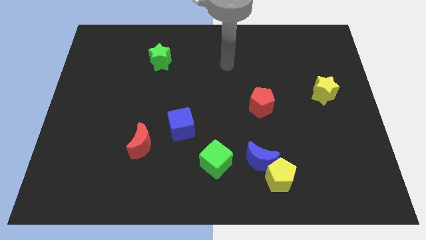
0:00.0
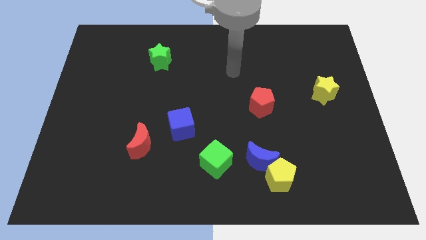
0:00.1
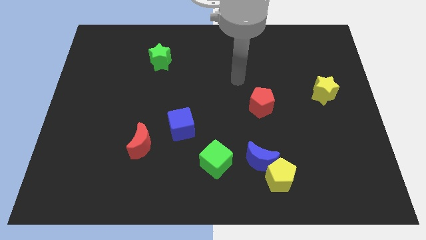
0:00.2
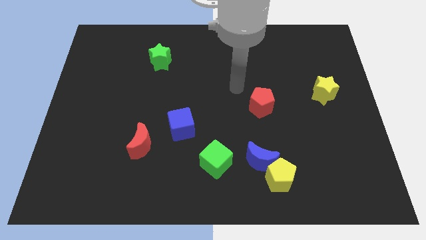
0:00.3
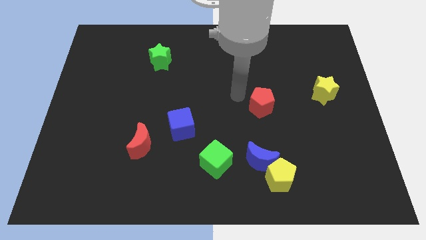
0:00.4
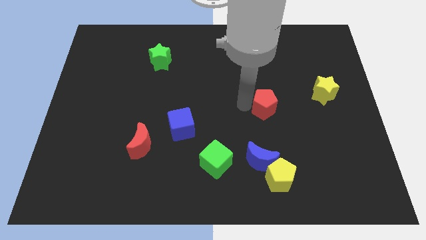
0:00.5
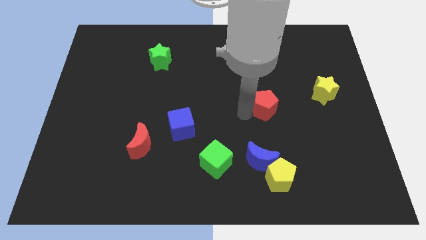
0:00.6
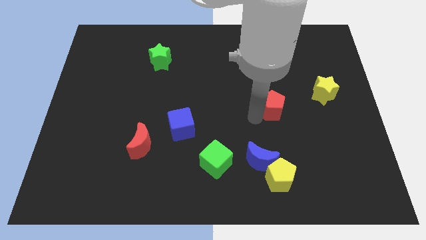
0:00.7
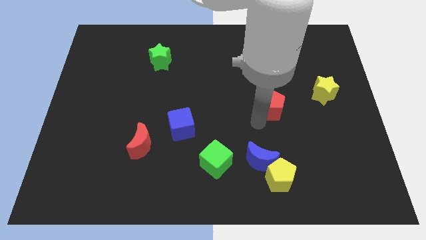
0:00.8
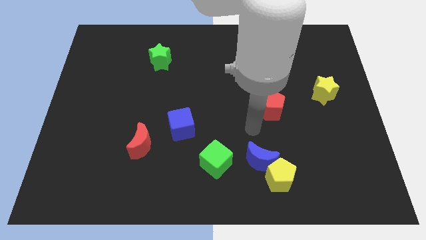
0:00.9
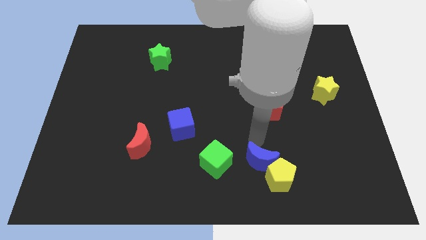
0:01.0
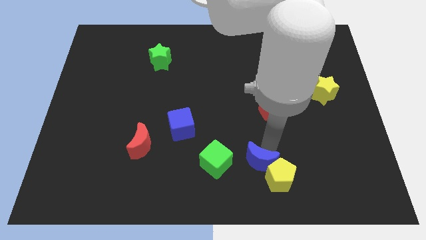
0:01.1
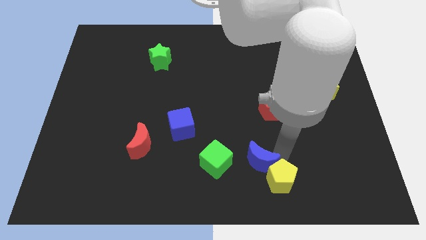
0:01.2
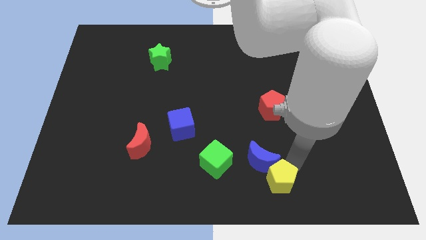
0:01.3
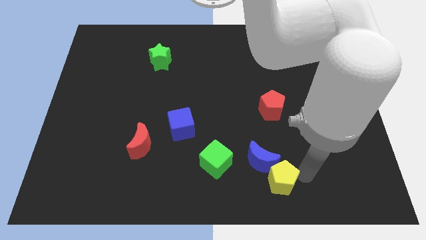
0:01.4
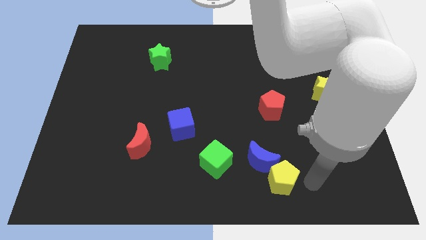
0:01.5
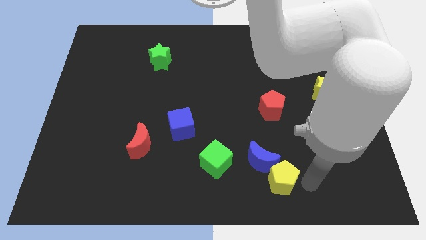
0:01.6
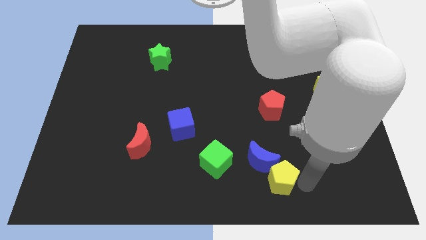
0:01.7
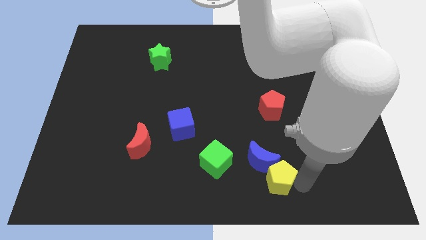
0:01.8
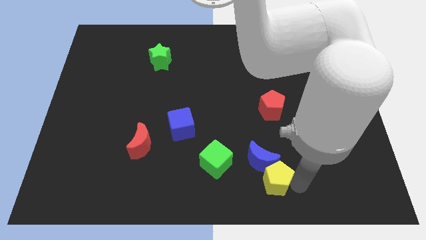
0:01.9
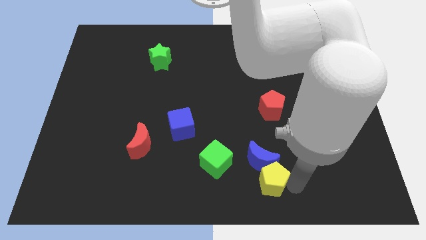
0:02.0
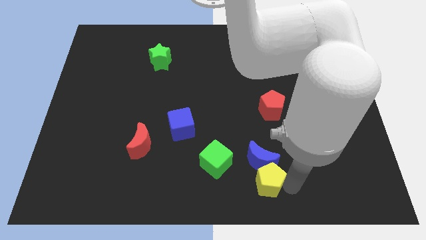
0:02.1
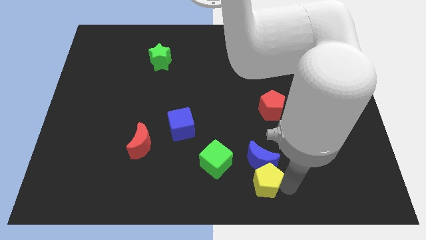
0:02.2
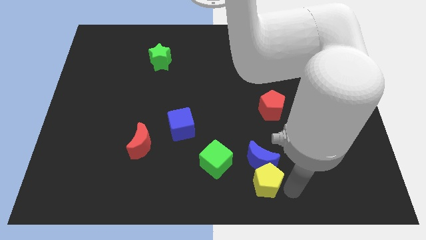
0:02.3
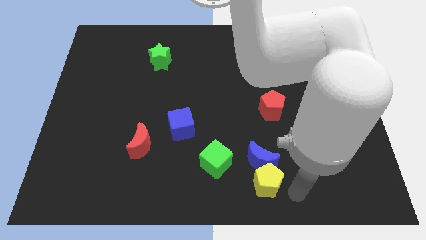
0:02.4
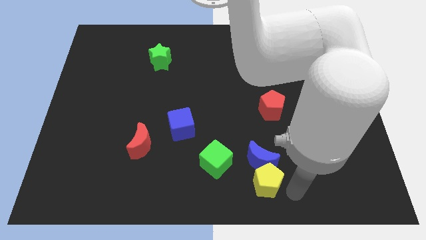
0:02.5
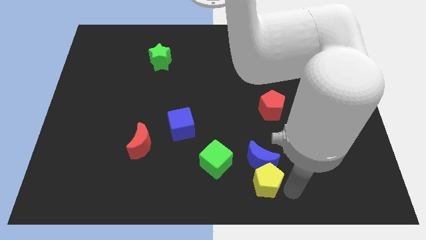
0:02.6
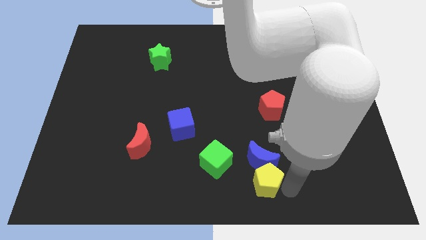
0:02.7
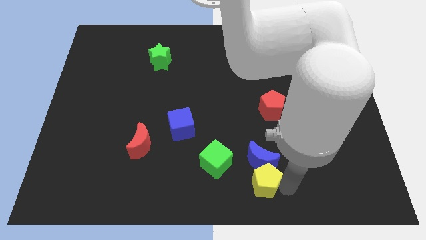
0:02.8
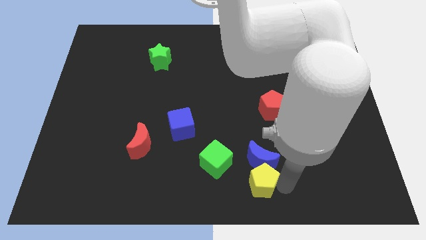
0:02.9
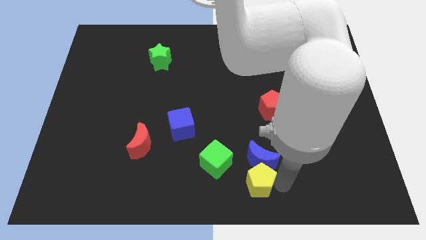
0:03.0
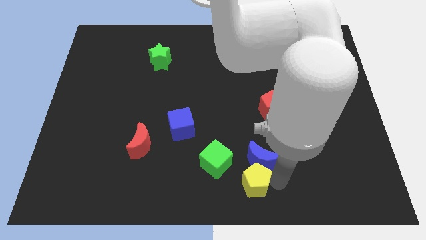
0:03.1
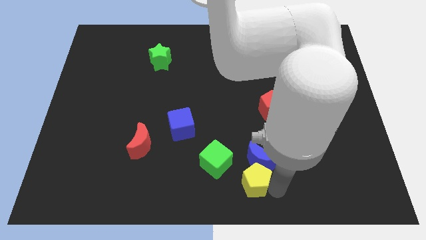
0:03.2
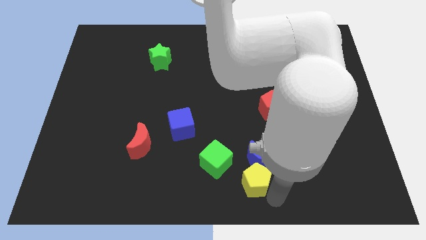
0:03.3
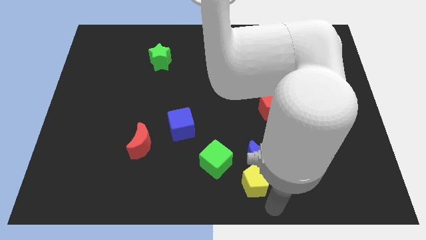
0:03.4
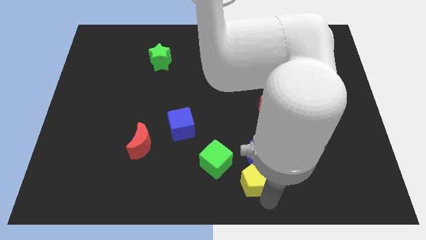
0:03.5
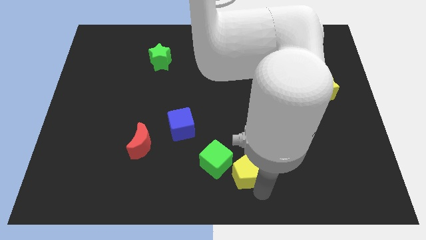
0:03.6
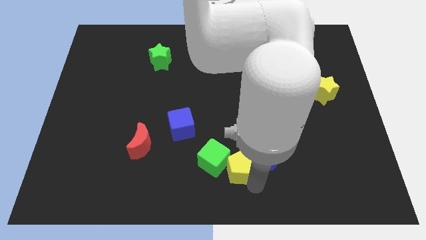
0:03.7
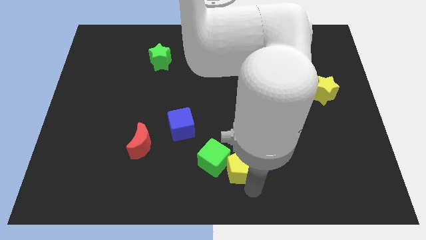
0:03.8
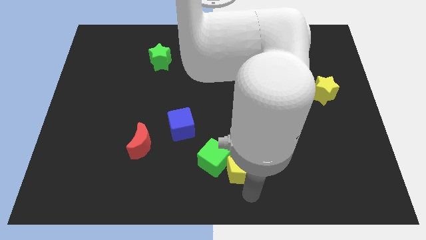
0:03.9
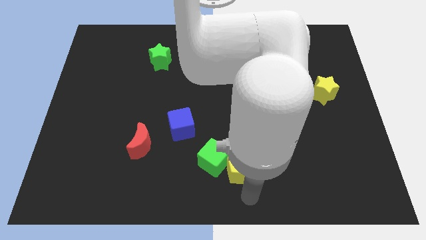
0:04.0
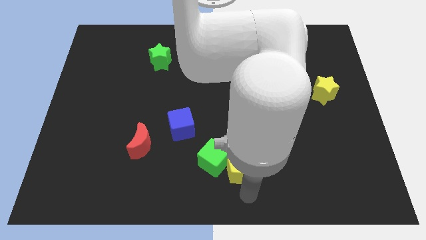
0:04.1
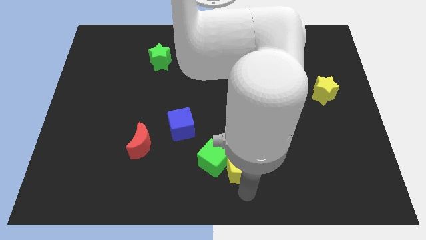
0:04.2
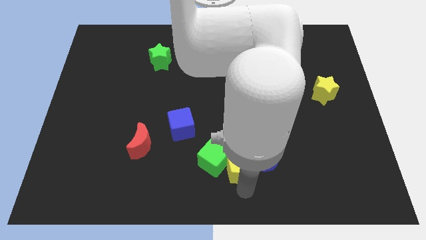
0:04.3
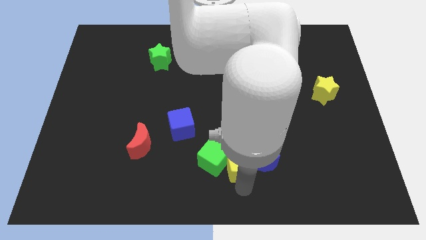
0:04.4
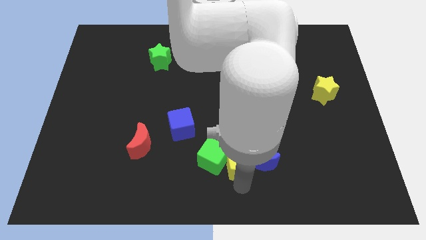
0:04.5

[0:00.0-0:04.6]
move the yellow pentagon a little upwards and to the left

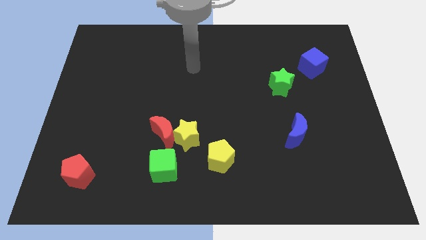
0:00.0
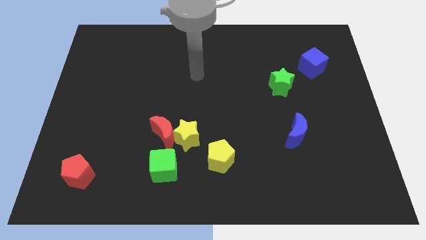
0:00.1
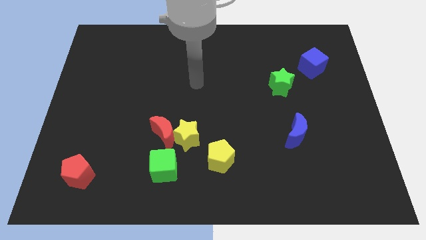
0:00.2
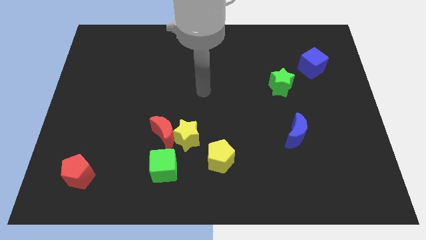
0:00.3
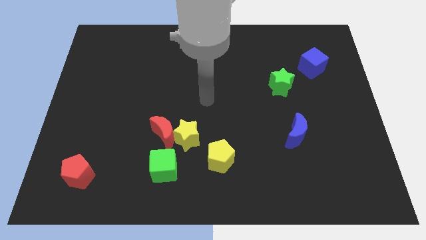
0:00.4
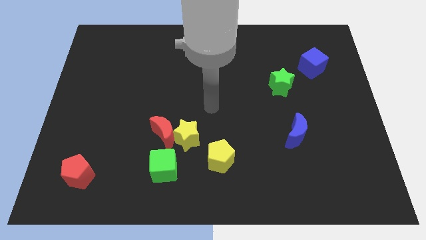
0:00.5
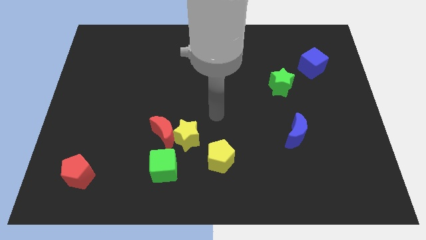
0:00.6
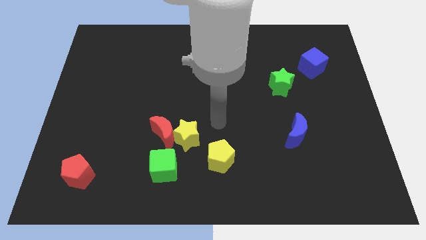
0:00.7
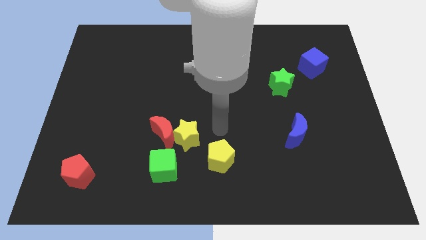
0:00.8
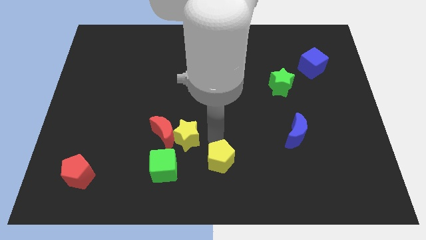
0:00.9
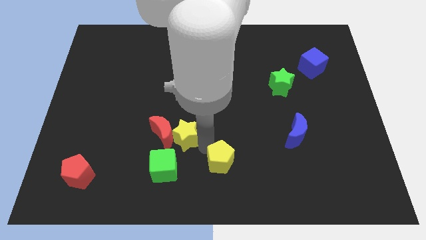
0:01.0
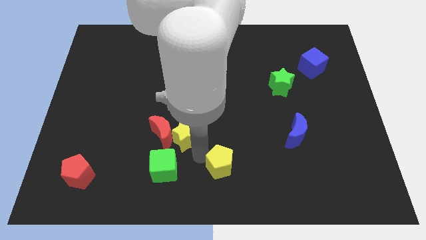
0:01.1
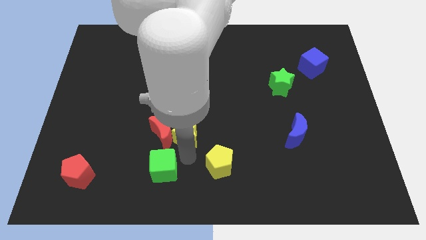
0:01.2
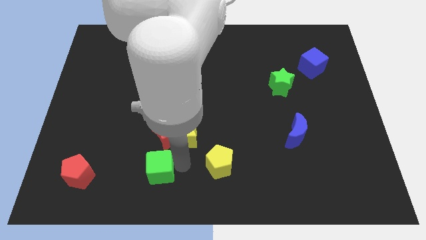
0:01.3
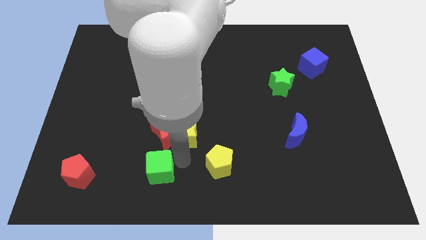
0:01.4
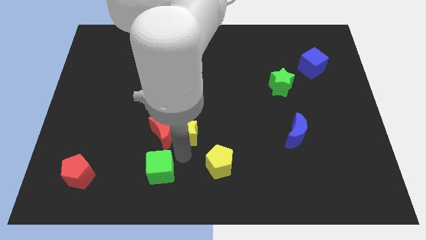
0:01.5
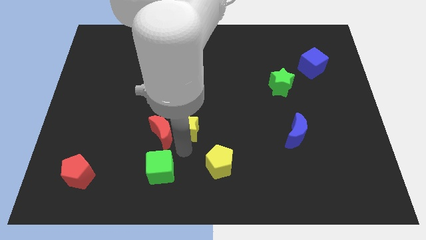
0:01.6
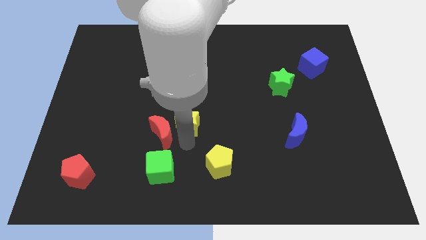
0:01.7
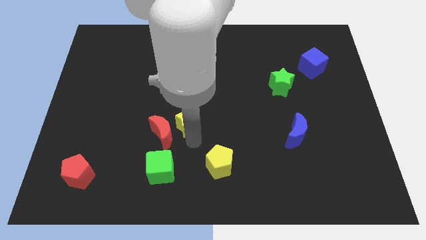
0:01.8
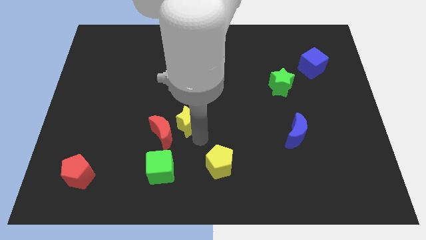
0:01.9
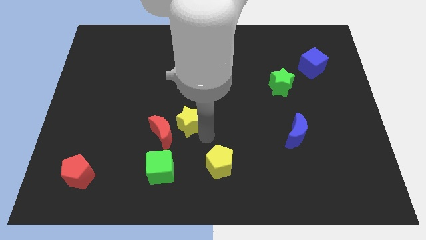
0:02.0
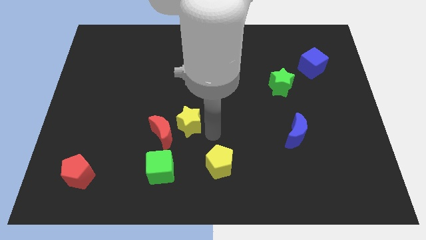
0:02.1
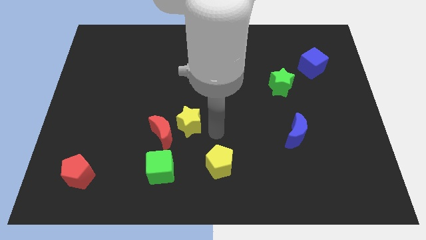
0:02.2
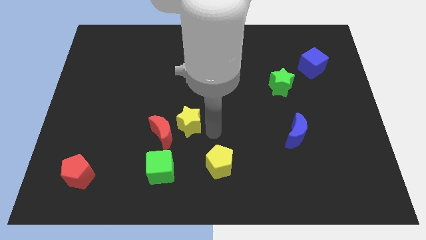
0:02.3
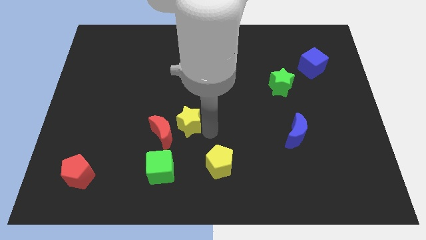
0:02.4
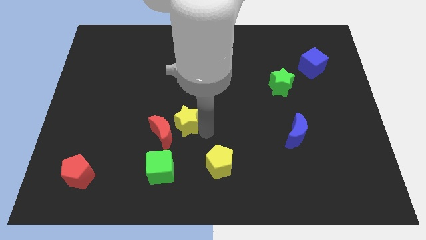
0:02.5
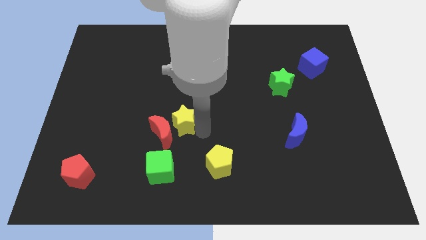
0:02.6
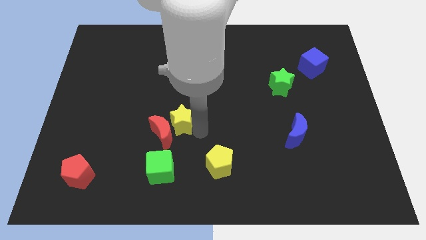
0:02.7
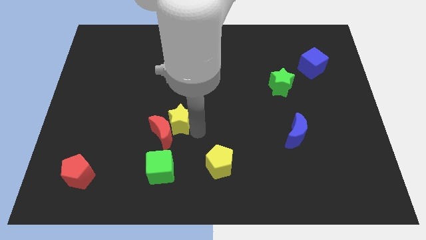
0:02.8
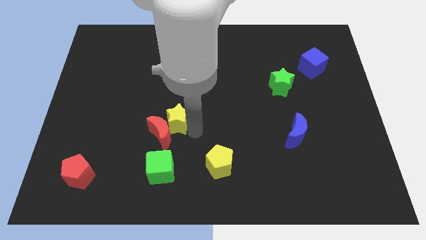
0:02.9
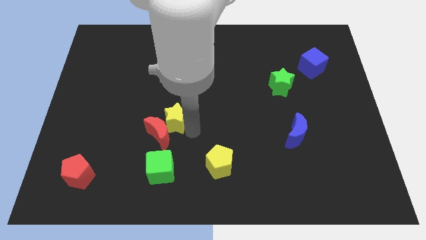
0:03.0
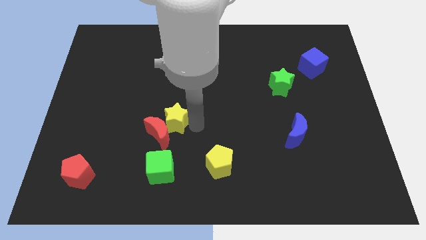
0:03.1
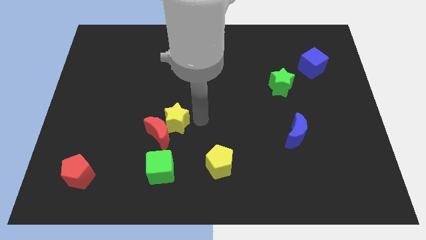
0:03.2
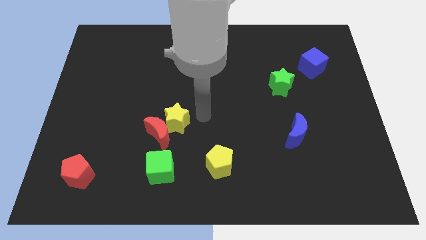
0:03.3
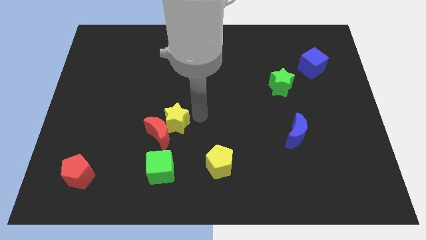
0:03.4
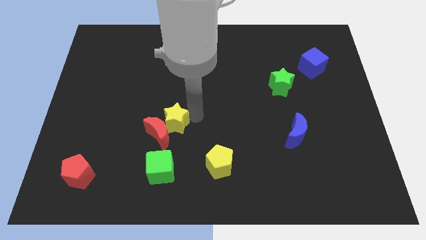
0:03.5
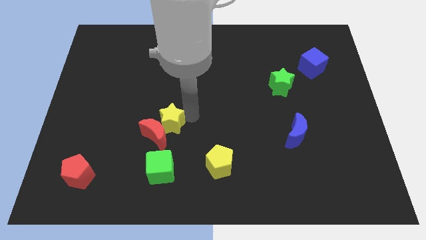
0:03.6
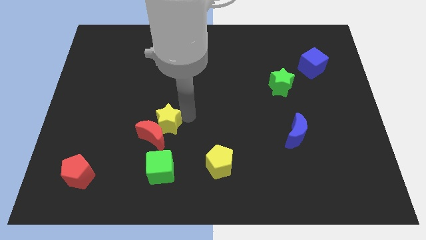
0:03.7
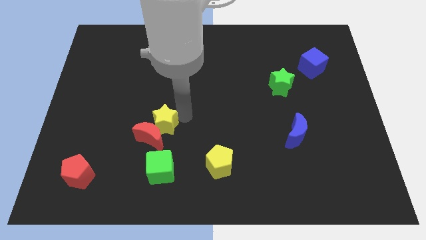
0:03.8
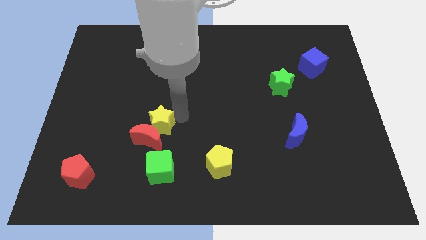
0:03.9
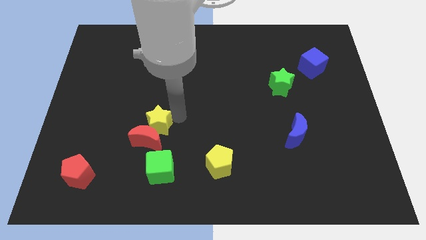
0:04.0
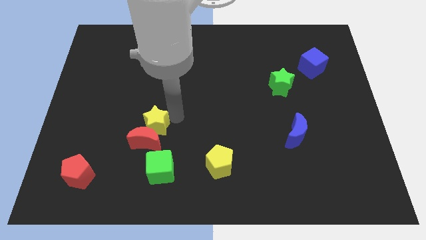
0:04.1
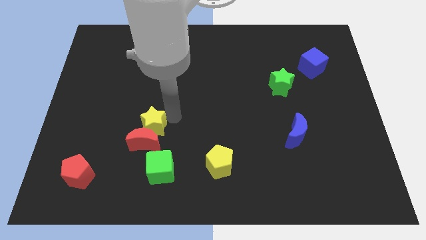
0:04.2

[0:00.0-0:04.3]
push the yellow star a bit left
